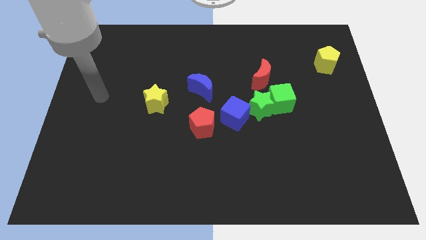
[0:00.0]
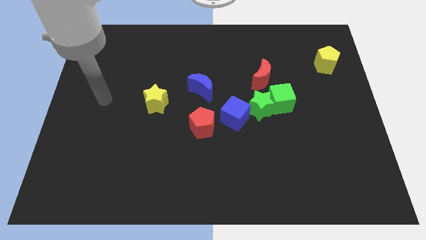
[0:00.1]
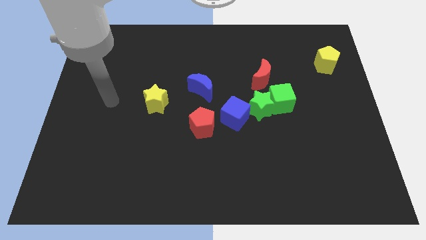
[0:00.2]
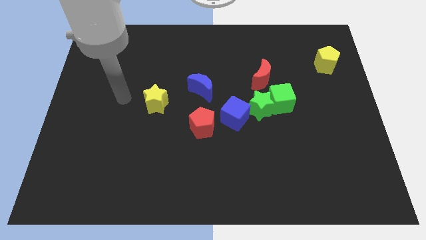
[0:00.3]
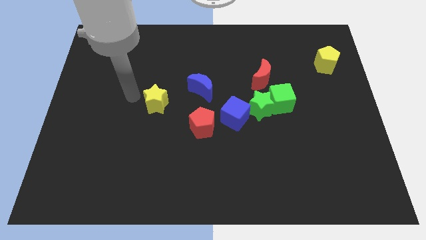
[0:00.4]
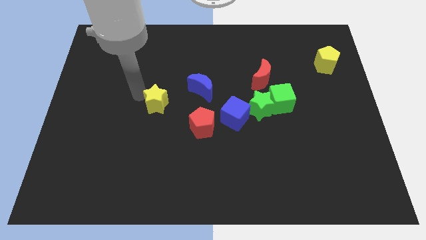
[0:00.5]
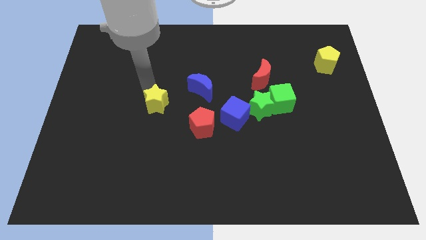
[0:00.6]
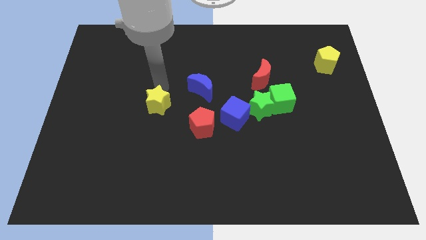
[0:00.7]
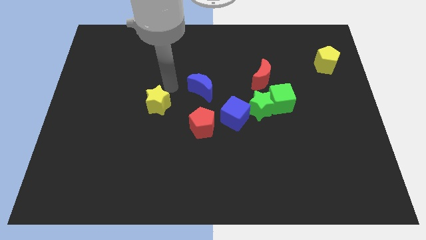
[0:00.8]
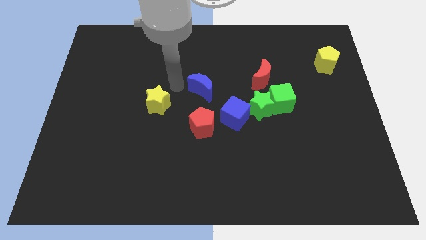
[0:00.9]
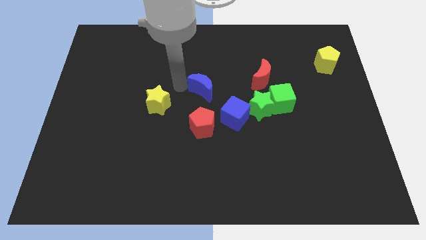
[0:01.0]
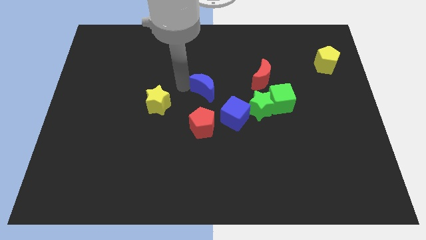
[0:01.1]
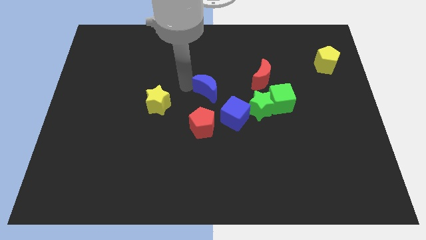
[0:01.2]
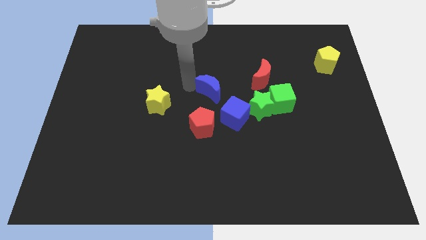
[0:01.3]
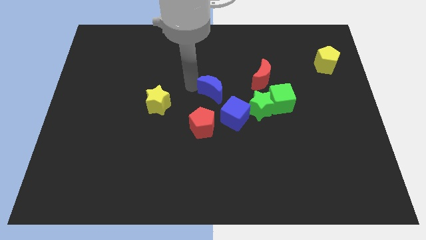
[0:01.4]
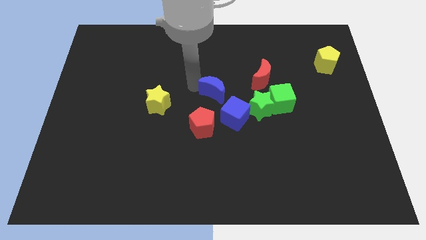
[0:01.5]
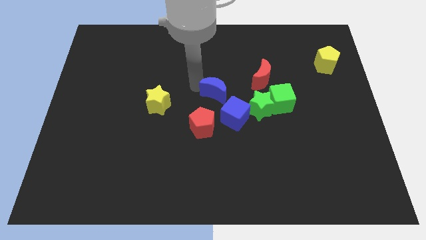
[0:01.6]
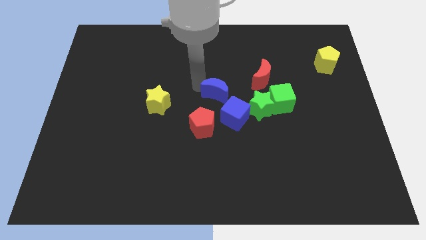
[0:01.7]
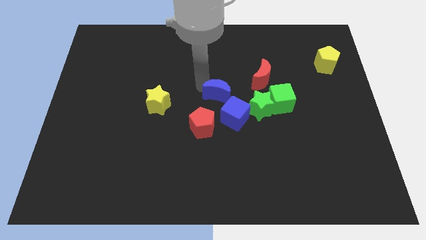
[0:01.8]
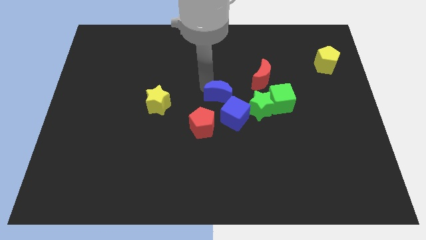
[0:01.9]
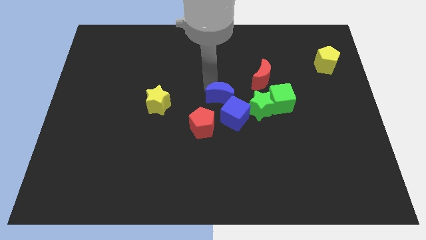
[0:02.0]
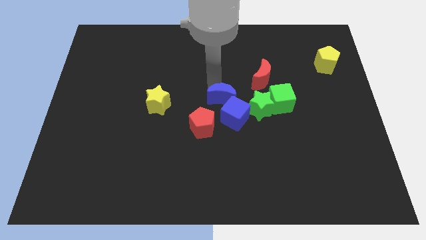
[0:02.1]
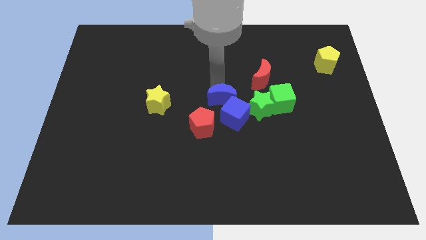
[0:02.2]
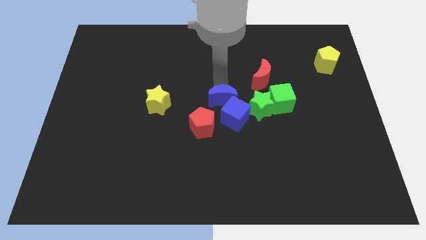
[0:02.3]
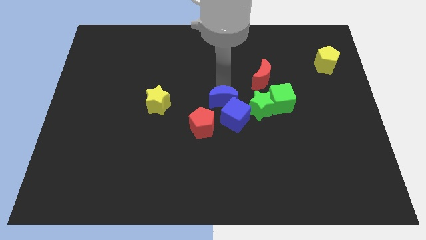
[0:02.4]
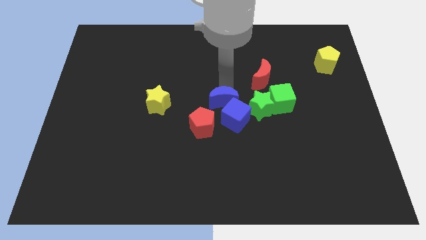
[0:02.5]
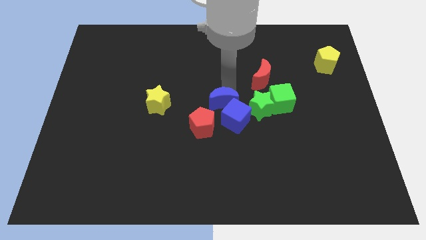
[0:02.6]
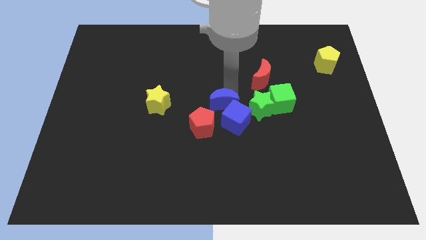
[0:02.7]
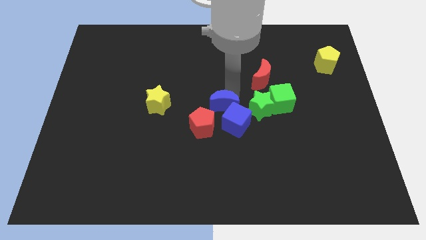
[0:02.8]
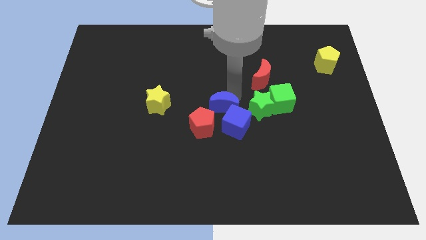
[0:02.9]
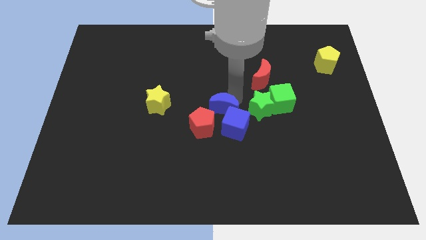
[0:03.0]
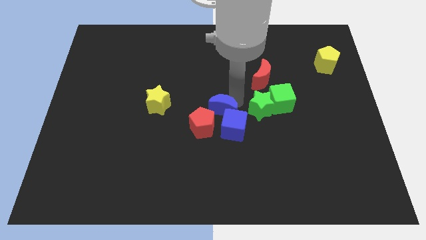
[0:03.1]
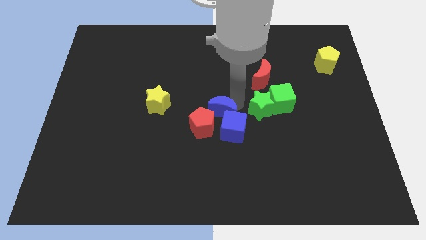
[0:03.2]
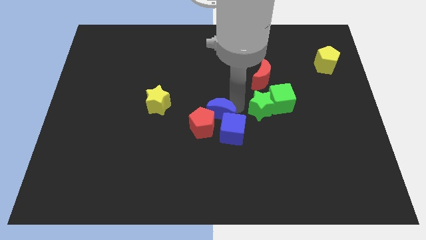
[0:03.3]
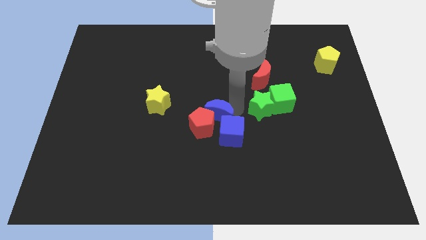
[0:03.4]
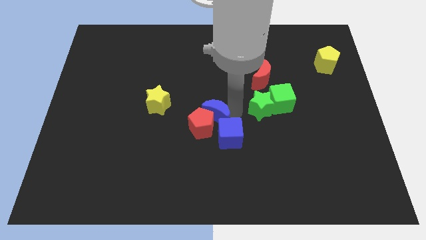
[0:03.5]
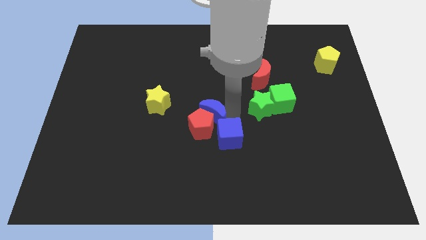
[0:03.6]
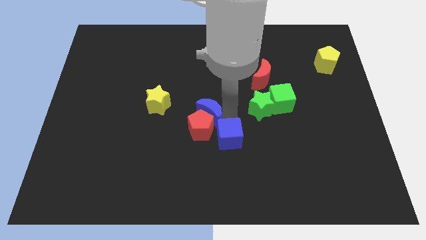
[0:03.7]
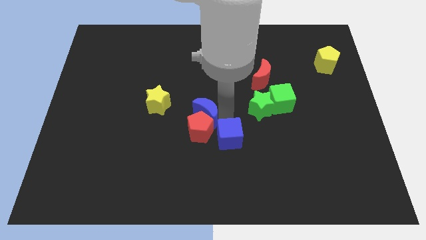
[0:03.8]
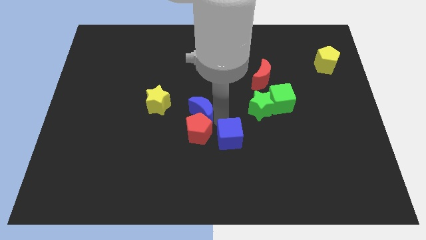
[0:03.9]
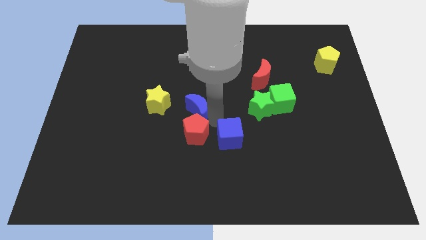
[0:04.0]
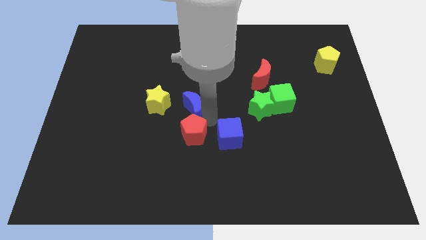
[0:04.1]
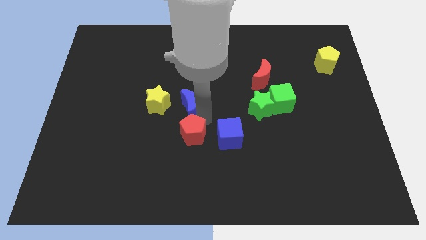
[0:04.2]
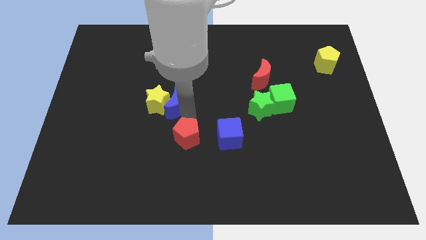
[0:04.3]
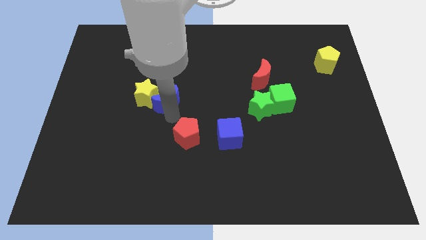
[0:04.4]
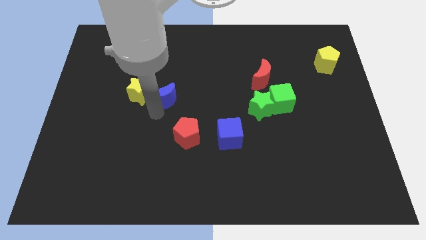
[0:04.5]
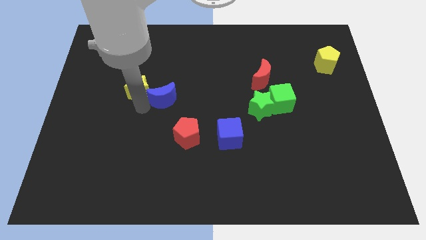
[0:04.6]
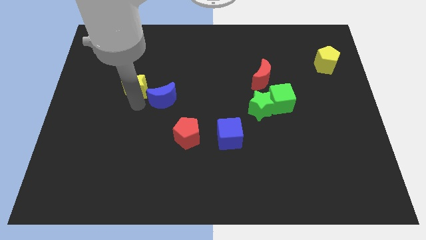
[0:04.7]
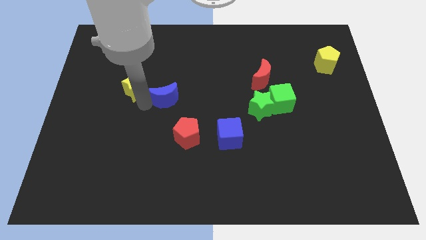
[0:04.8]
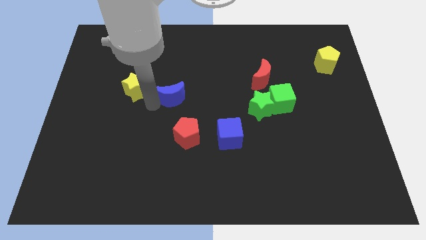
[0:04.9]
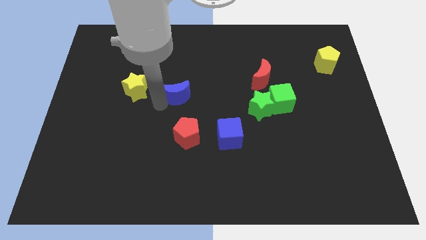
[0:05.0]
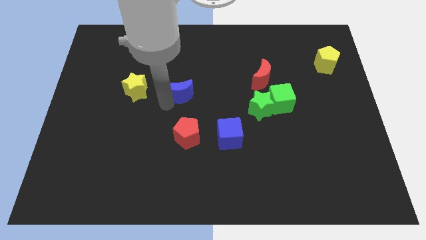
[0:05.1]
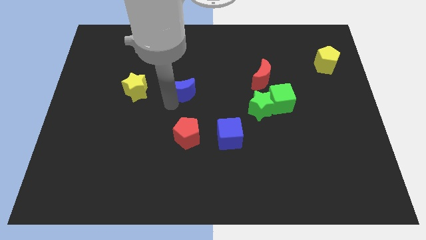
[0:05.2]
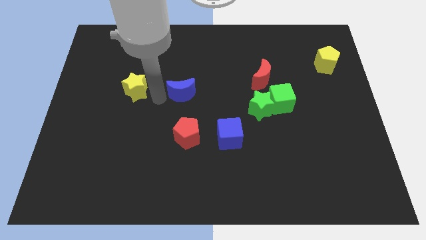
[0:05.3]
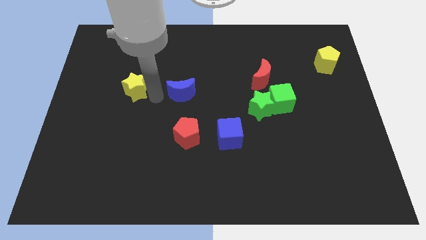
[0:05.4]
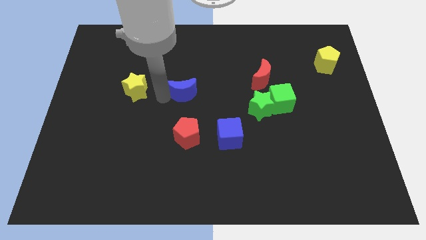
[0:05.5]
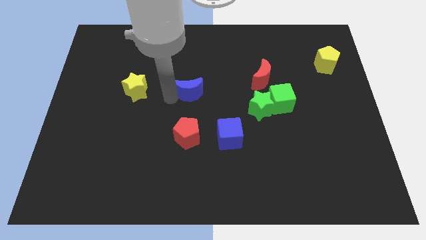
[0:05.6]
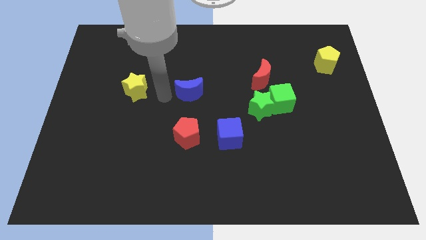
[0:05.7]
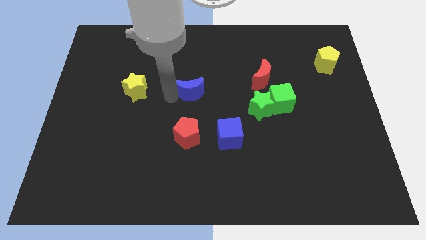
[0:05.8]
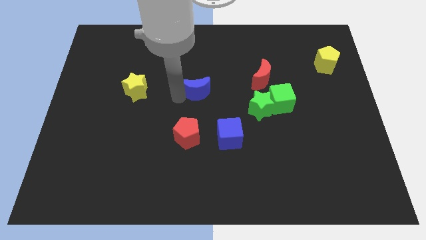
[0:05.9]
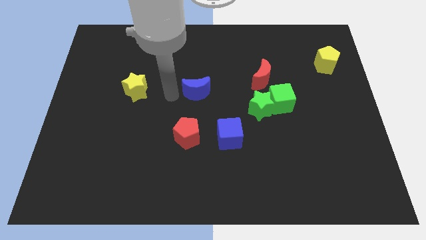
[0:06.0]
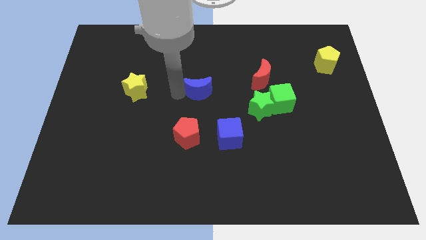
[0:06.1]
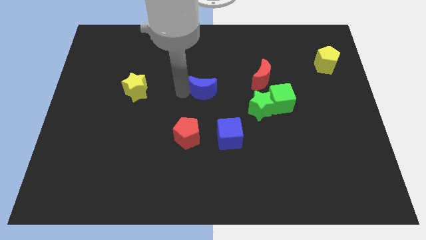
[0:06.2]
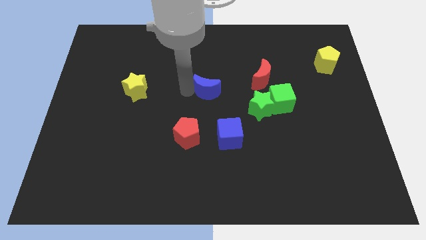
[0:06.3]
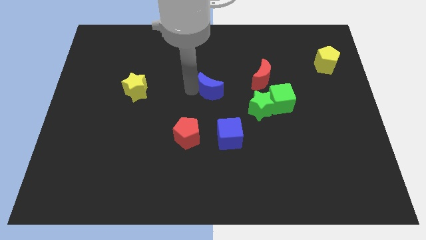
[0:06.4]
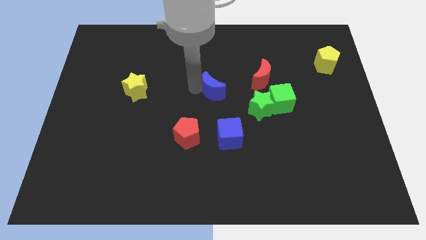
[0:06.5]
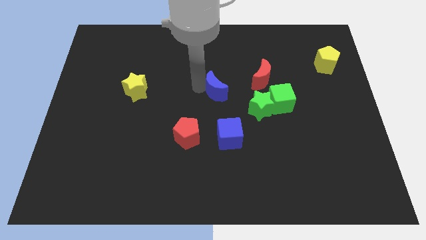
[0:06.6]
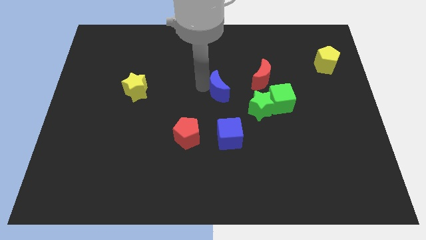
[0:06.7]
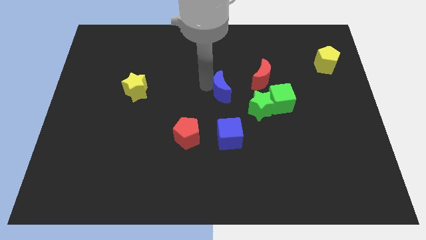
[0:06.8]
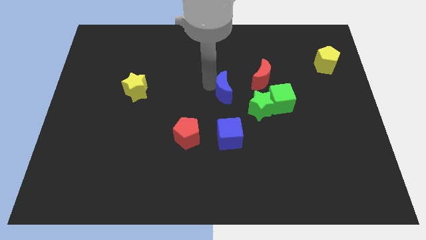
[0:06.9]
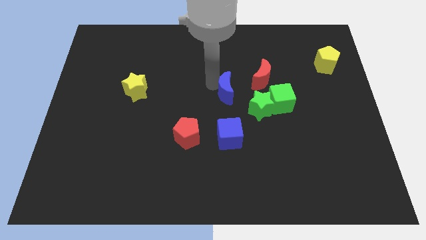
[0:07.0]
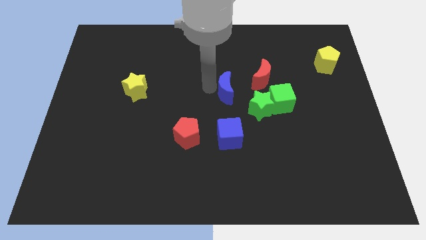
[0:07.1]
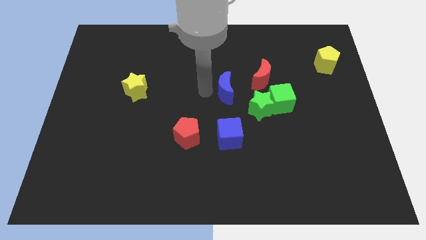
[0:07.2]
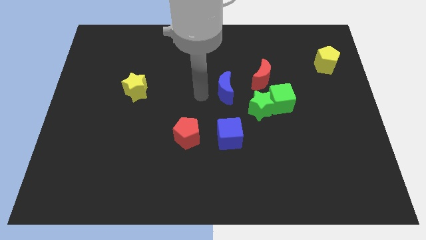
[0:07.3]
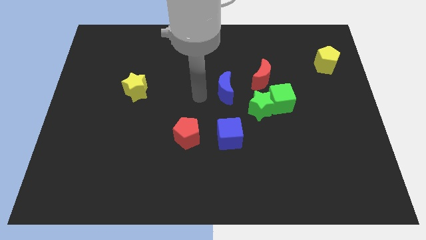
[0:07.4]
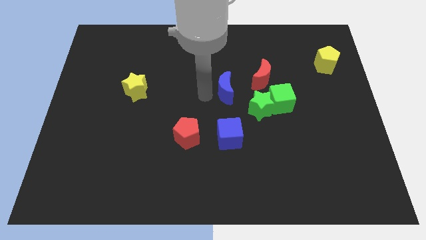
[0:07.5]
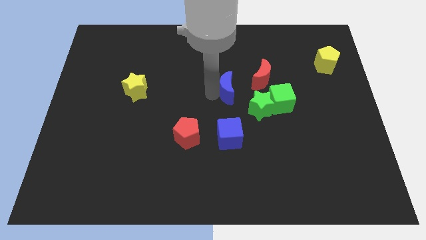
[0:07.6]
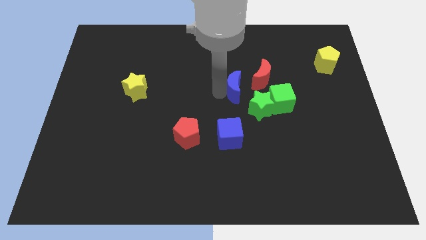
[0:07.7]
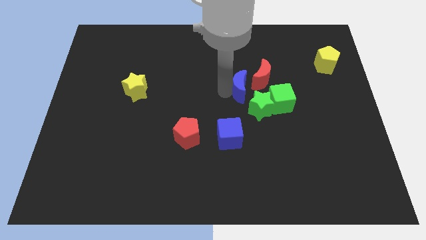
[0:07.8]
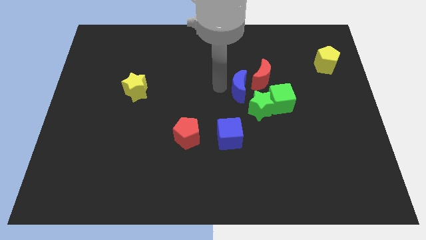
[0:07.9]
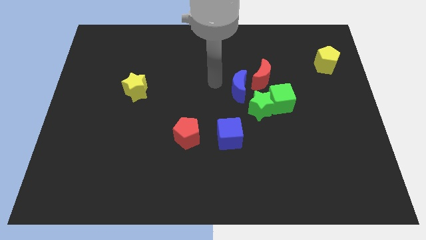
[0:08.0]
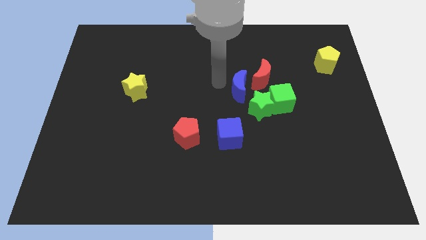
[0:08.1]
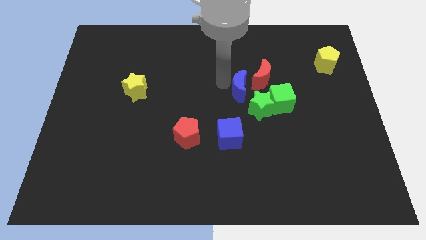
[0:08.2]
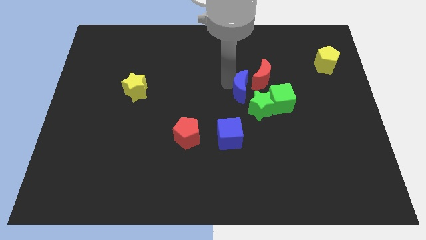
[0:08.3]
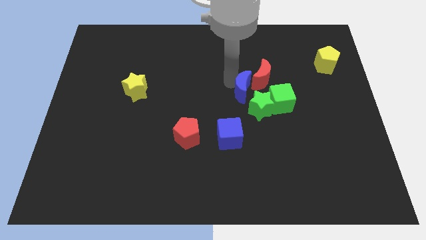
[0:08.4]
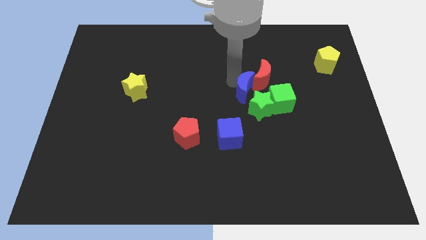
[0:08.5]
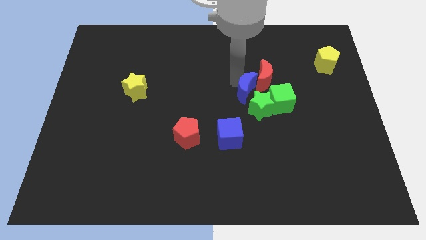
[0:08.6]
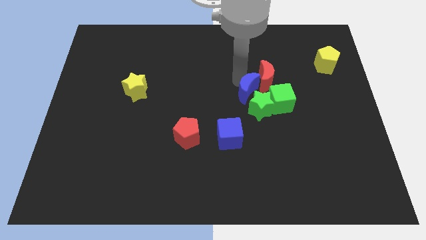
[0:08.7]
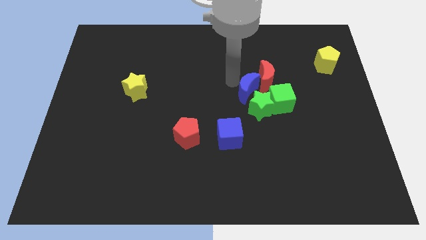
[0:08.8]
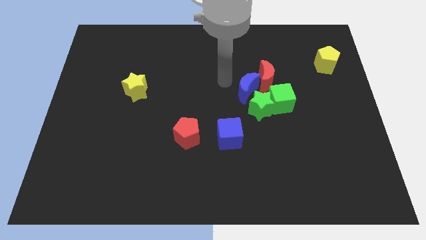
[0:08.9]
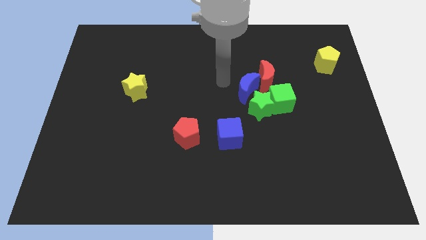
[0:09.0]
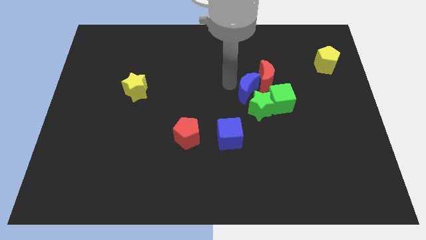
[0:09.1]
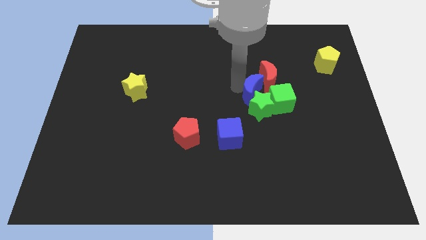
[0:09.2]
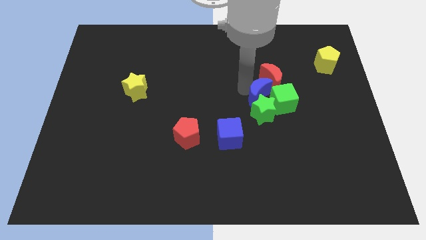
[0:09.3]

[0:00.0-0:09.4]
move the blue moon close to the green cube
